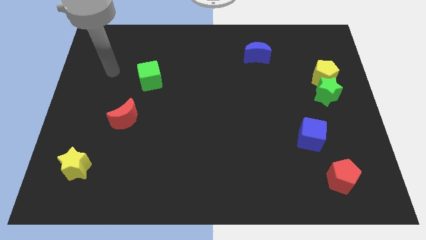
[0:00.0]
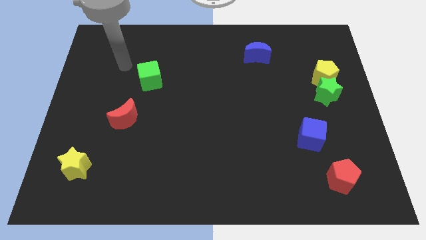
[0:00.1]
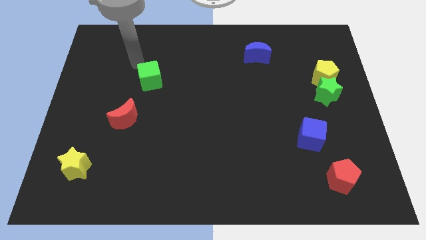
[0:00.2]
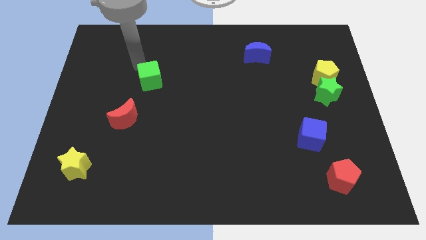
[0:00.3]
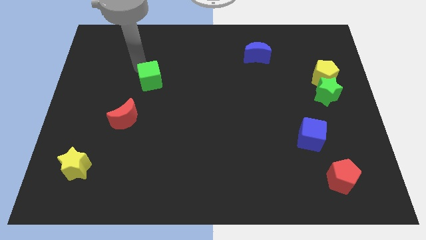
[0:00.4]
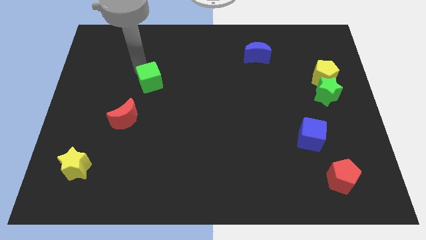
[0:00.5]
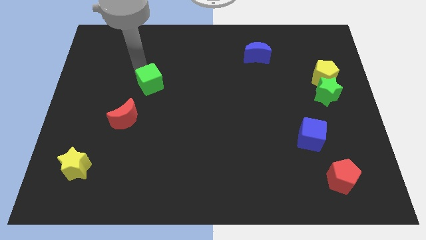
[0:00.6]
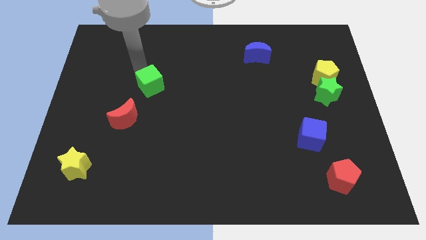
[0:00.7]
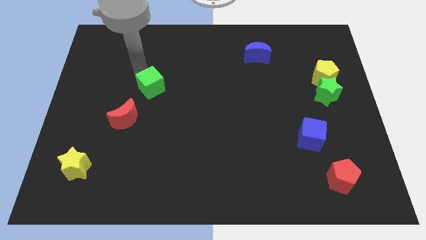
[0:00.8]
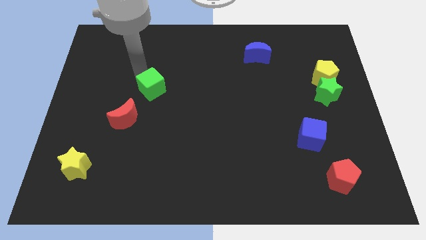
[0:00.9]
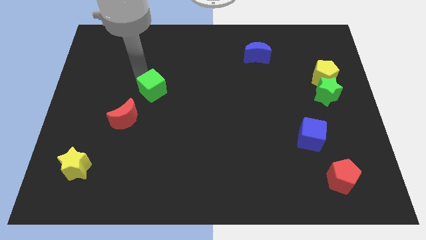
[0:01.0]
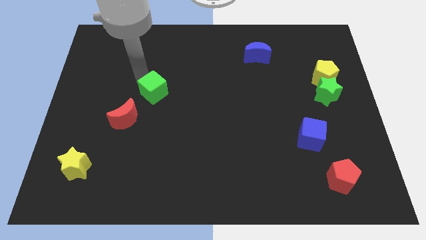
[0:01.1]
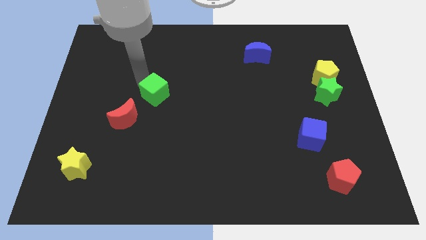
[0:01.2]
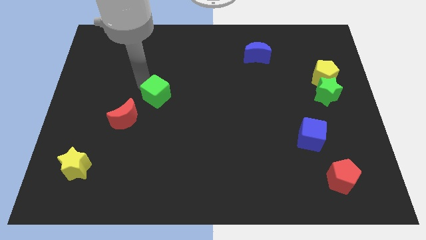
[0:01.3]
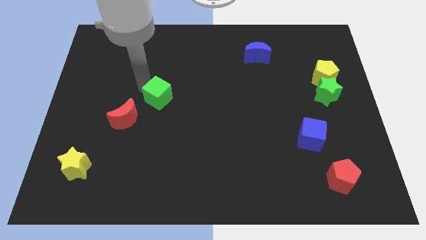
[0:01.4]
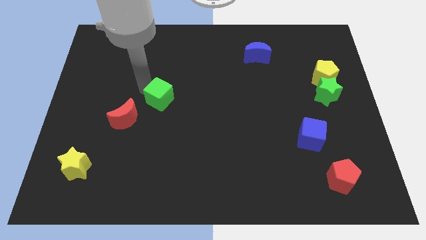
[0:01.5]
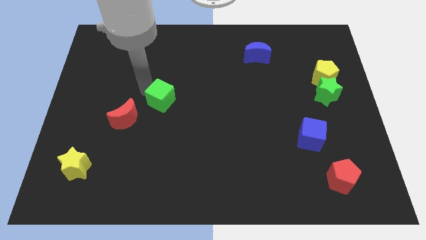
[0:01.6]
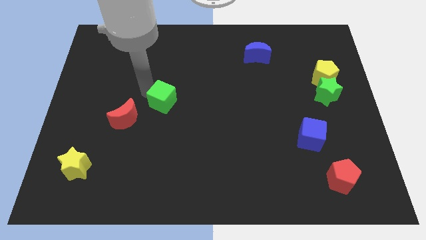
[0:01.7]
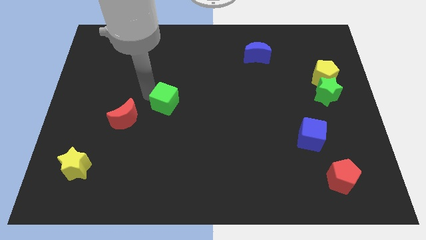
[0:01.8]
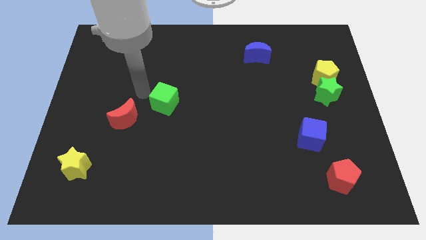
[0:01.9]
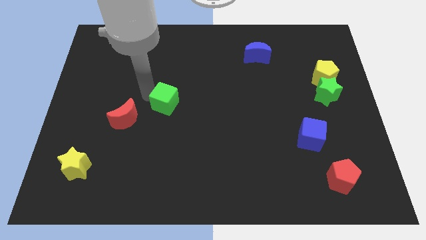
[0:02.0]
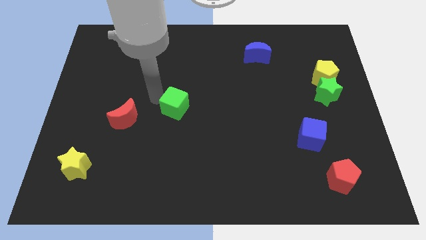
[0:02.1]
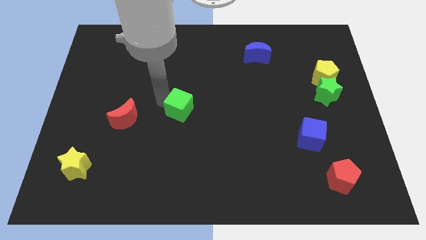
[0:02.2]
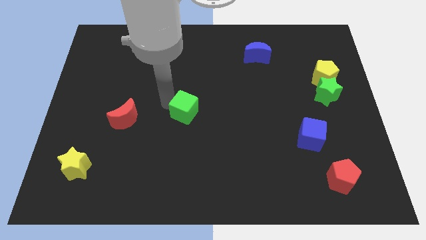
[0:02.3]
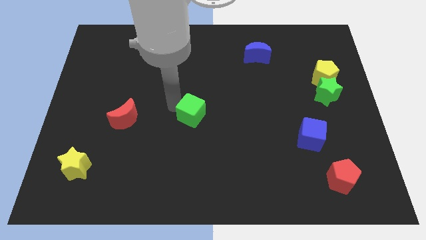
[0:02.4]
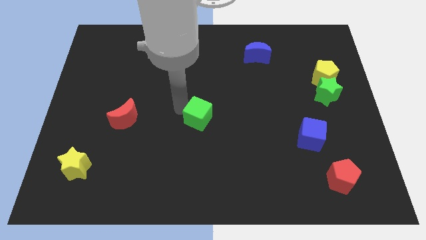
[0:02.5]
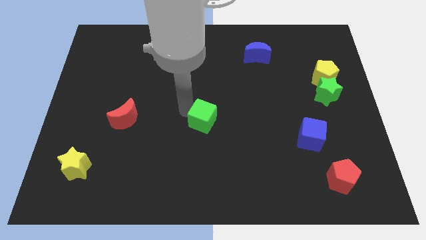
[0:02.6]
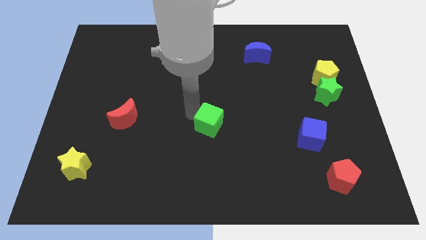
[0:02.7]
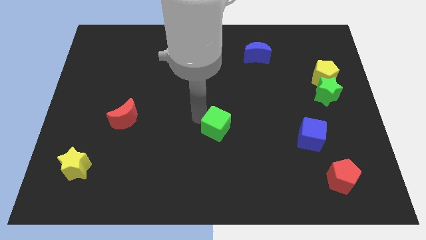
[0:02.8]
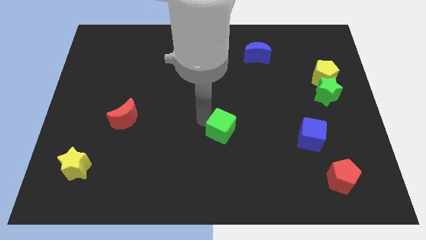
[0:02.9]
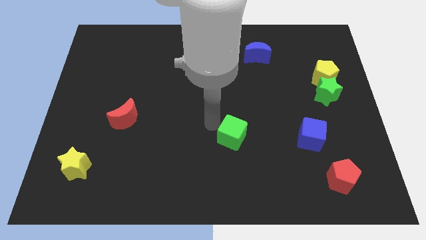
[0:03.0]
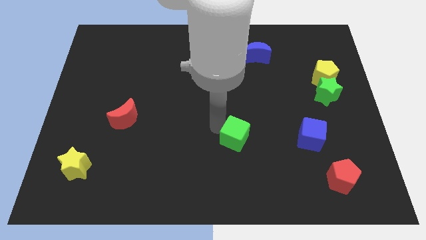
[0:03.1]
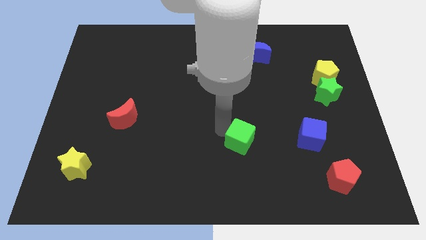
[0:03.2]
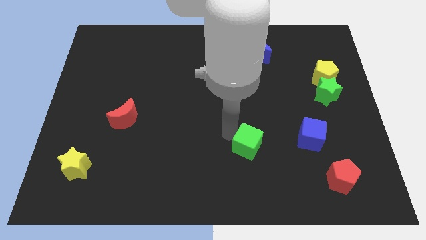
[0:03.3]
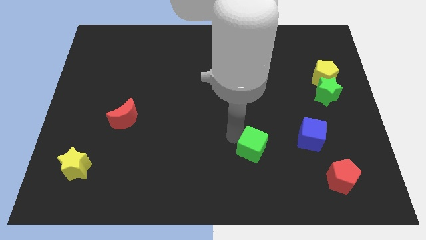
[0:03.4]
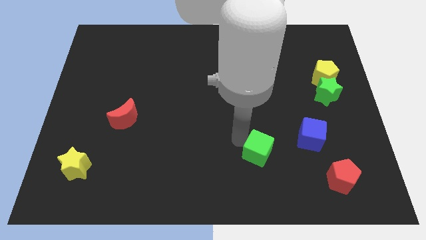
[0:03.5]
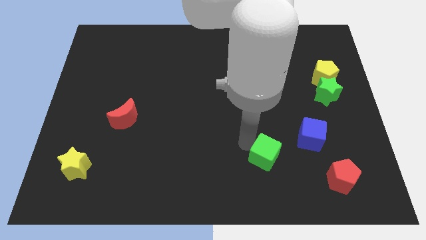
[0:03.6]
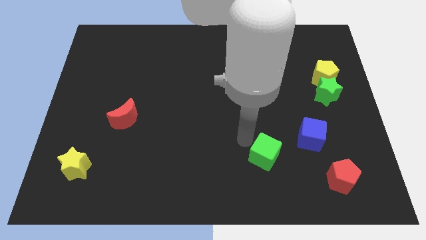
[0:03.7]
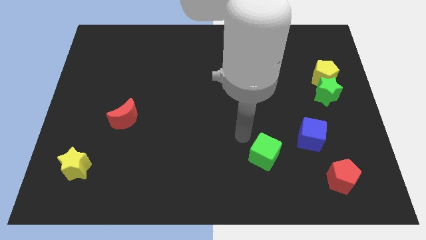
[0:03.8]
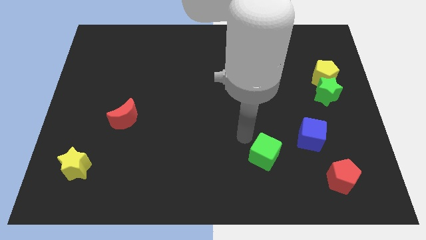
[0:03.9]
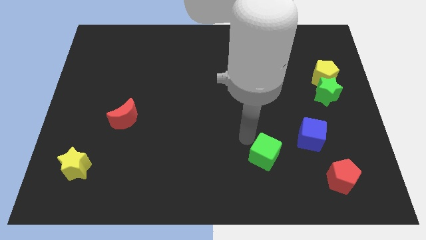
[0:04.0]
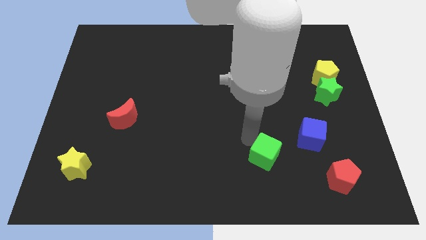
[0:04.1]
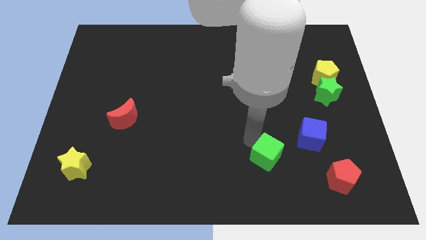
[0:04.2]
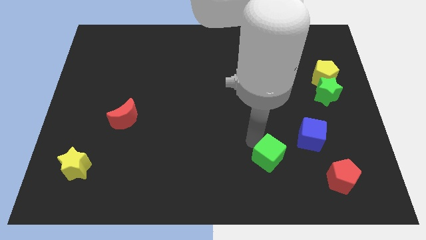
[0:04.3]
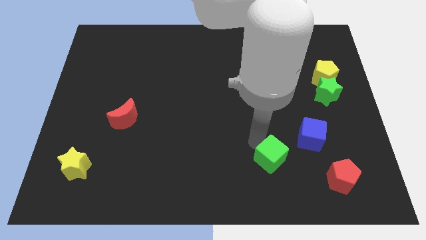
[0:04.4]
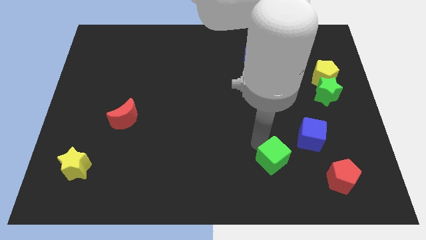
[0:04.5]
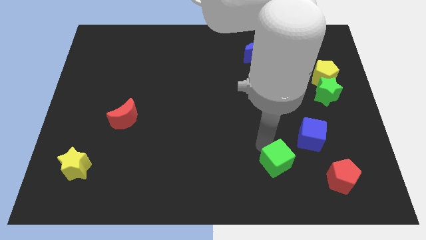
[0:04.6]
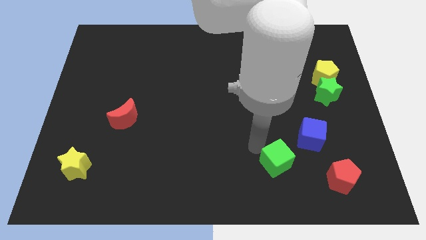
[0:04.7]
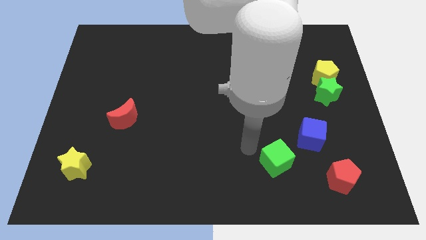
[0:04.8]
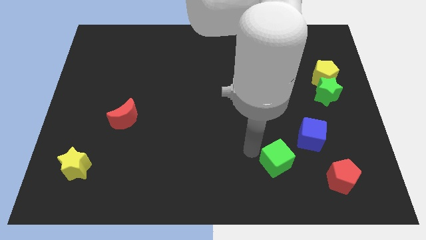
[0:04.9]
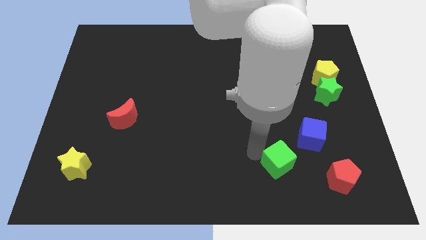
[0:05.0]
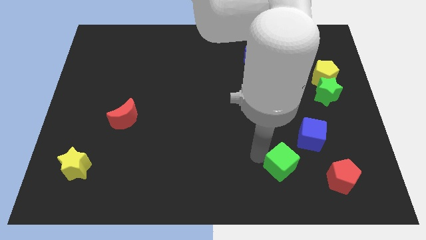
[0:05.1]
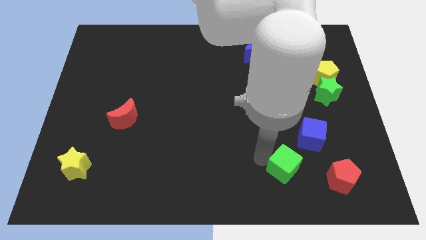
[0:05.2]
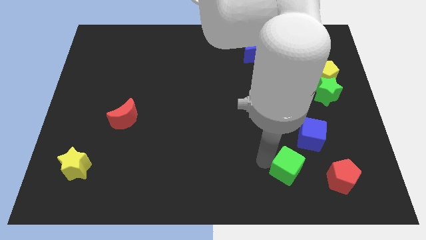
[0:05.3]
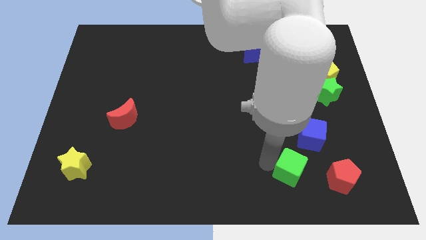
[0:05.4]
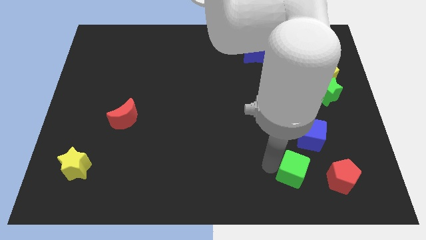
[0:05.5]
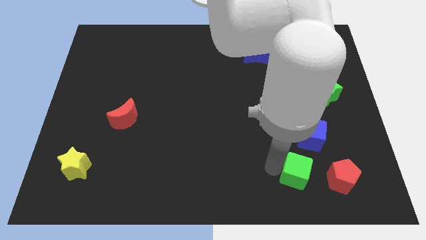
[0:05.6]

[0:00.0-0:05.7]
move the green cube to the bottom of the blue cube
